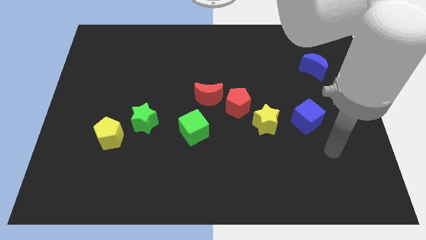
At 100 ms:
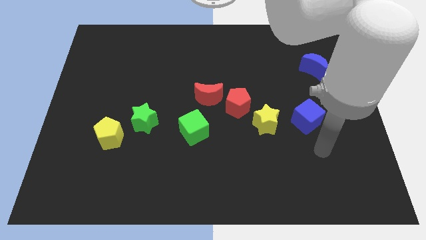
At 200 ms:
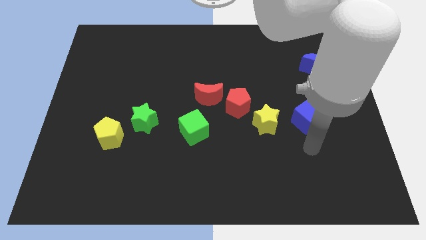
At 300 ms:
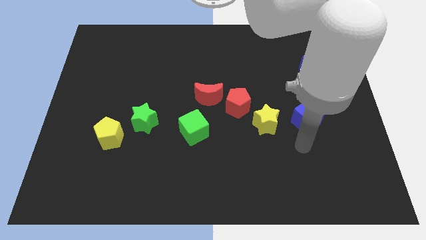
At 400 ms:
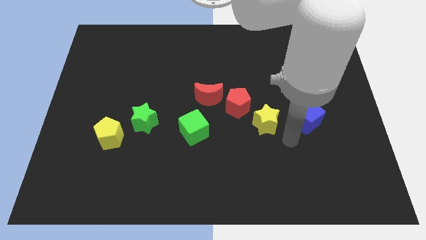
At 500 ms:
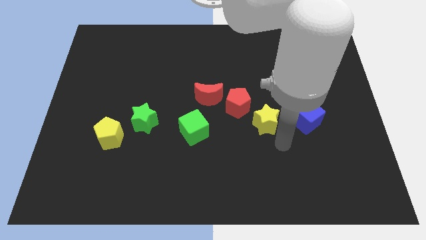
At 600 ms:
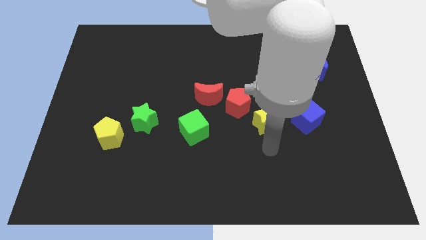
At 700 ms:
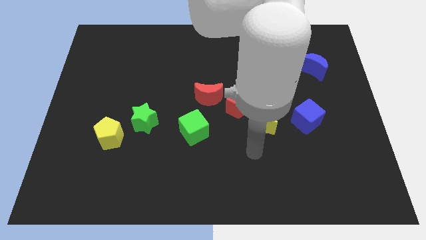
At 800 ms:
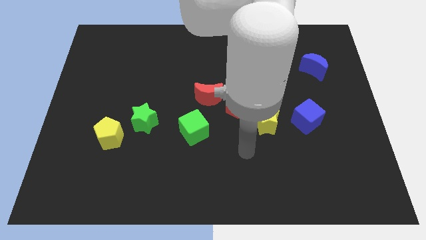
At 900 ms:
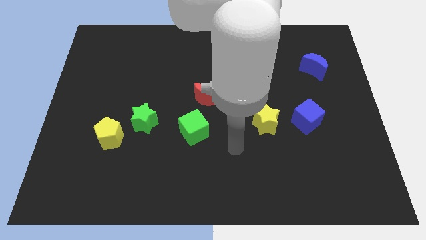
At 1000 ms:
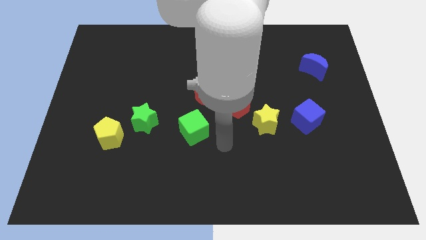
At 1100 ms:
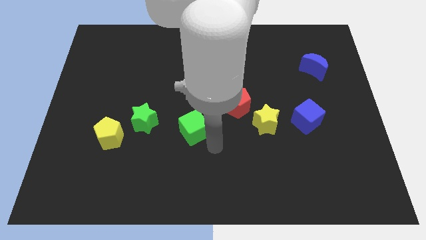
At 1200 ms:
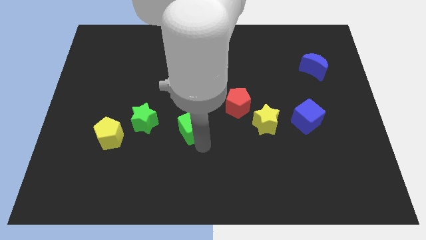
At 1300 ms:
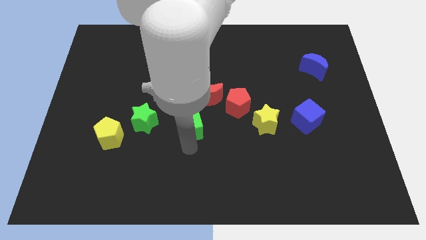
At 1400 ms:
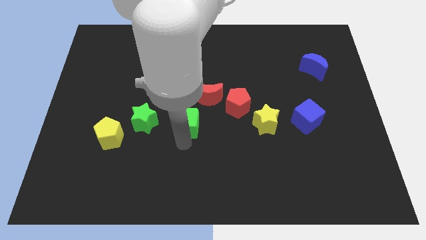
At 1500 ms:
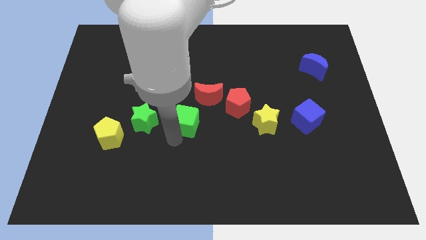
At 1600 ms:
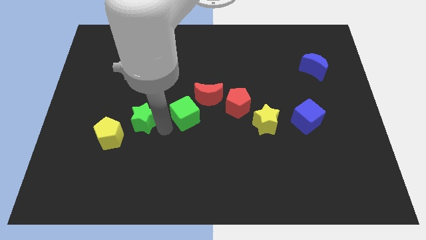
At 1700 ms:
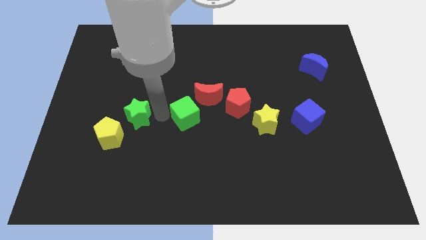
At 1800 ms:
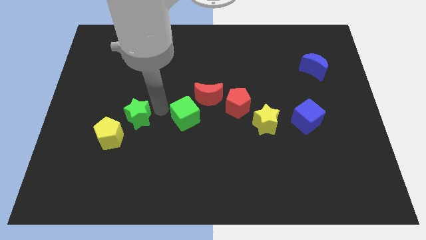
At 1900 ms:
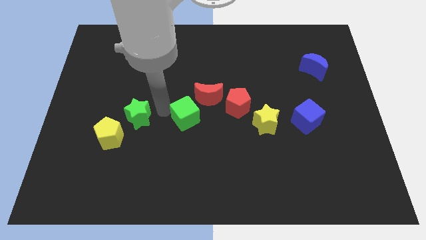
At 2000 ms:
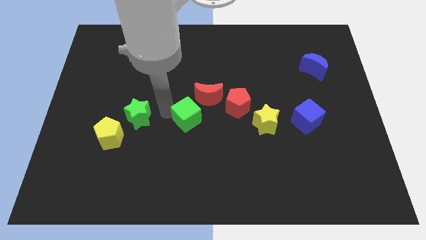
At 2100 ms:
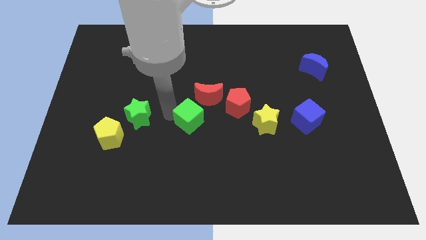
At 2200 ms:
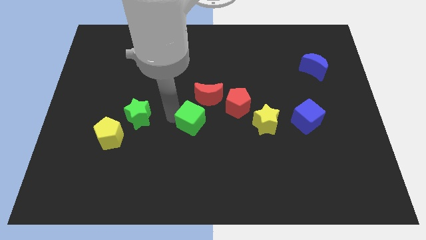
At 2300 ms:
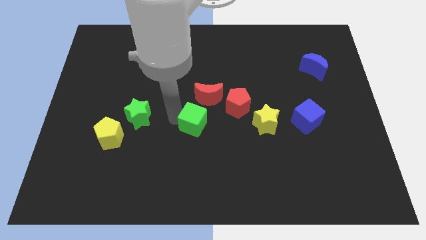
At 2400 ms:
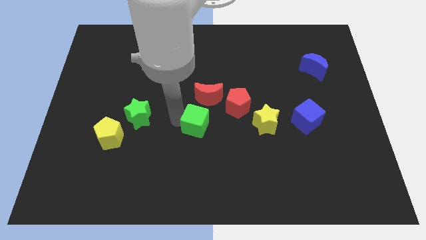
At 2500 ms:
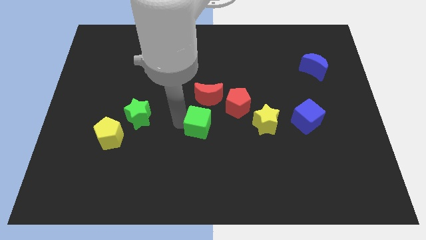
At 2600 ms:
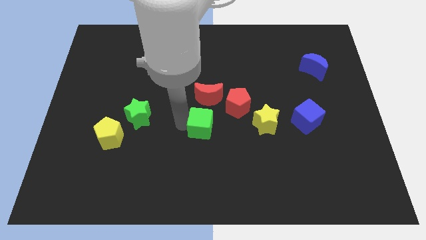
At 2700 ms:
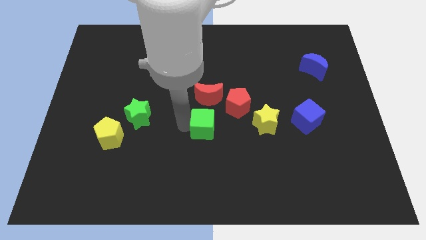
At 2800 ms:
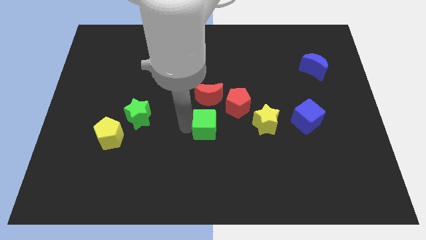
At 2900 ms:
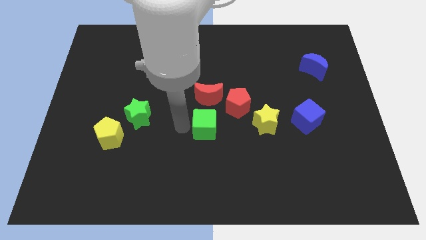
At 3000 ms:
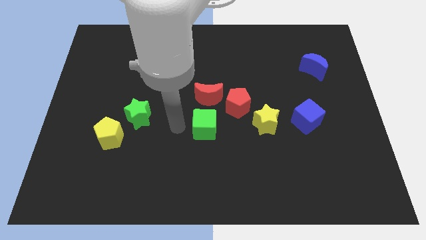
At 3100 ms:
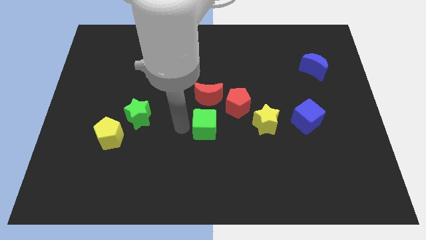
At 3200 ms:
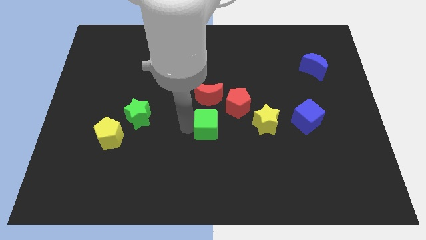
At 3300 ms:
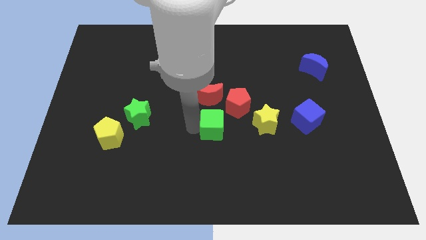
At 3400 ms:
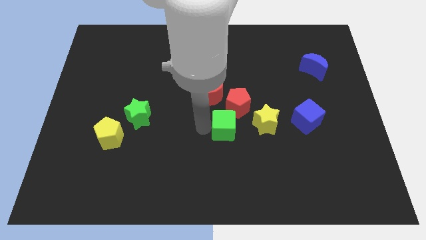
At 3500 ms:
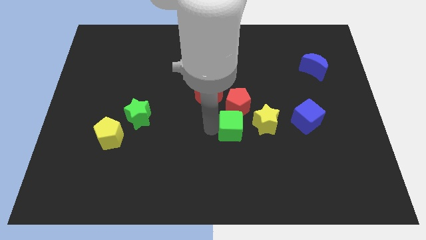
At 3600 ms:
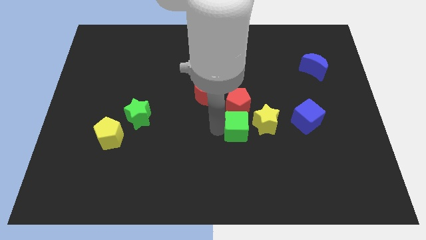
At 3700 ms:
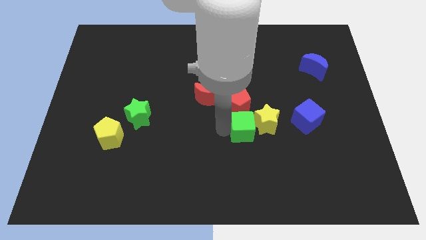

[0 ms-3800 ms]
push the green cube towards the yellow star

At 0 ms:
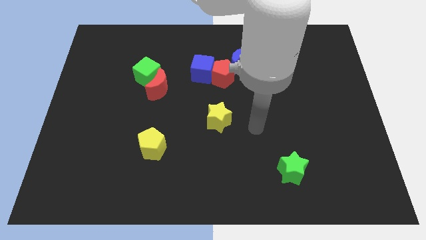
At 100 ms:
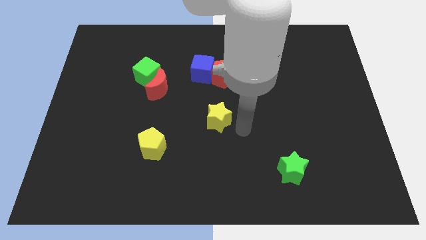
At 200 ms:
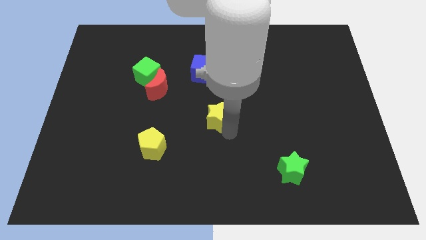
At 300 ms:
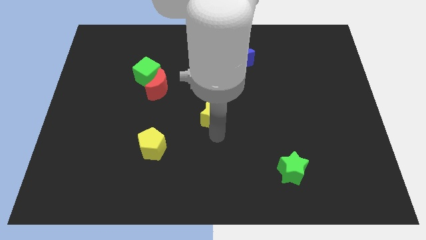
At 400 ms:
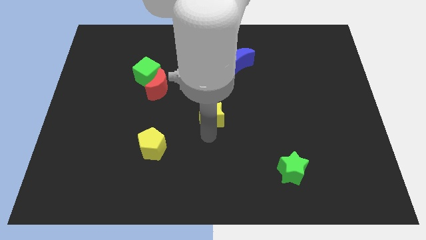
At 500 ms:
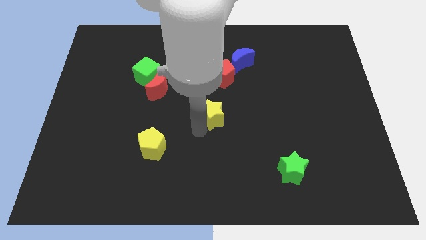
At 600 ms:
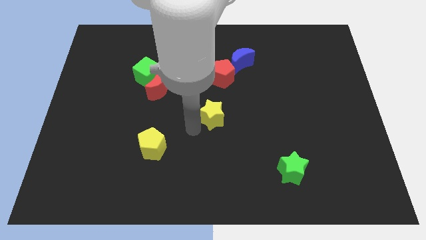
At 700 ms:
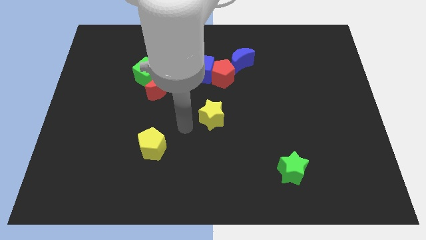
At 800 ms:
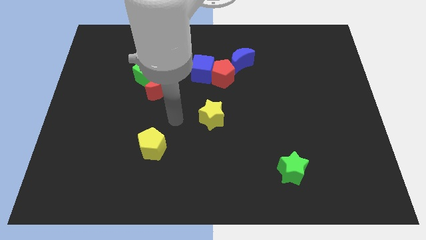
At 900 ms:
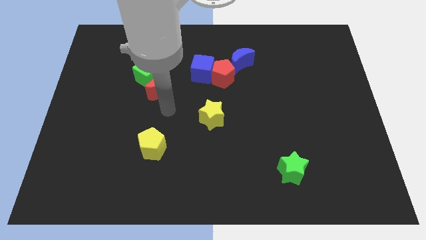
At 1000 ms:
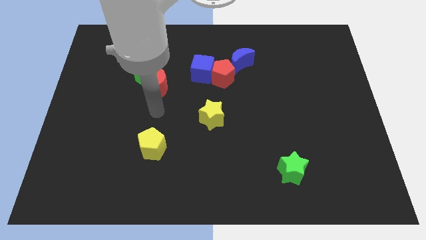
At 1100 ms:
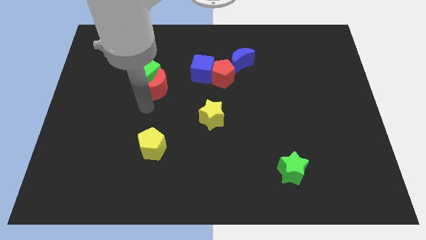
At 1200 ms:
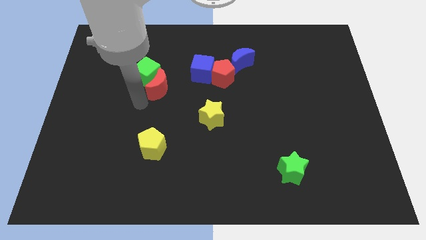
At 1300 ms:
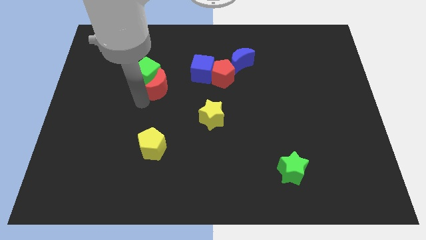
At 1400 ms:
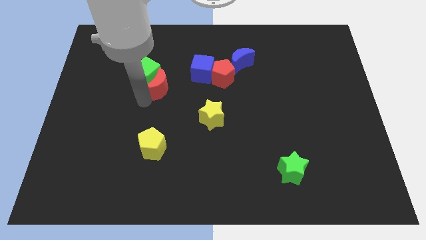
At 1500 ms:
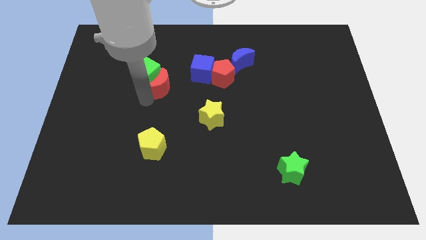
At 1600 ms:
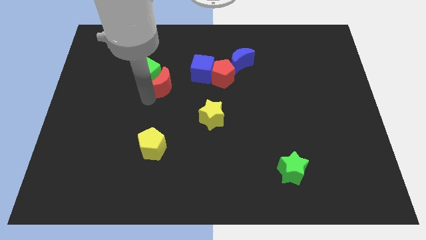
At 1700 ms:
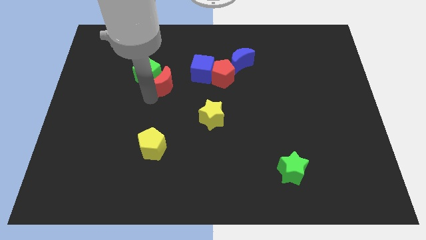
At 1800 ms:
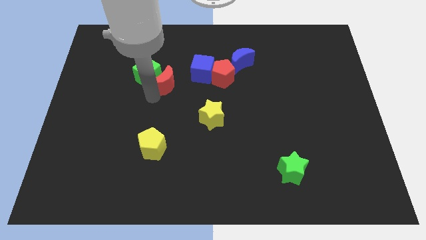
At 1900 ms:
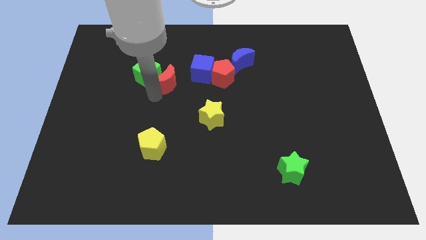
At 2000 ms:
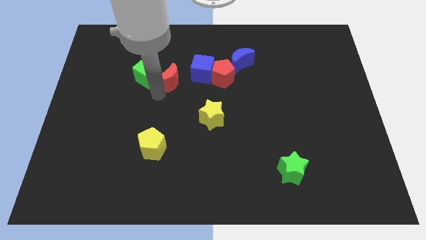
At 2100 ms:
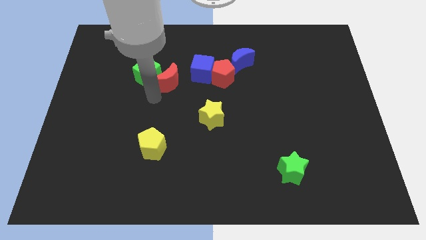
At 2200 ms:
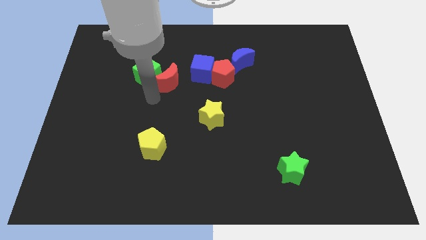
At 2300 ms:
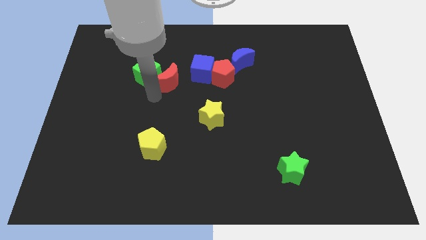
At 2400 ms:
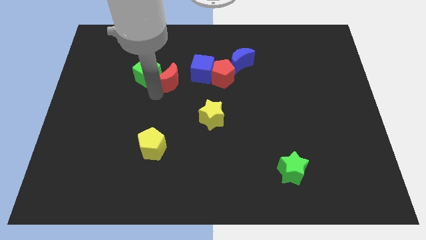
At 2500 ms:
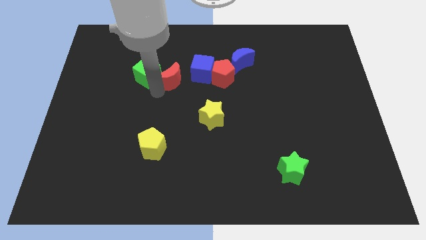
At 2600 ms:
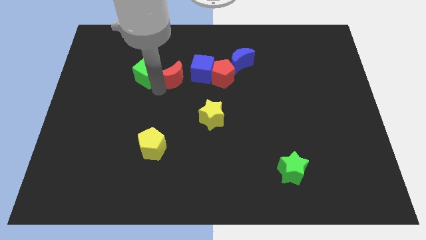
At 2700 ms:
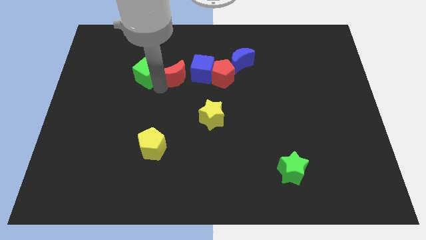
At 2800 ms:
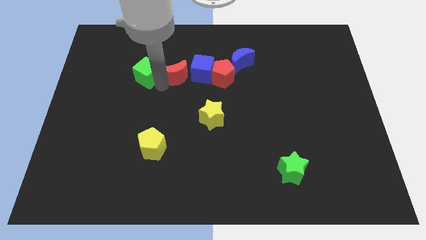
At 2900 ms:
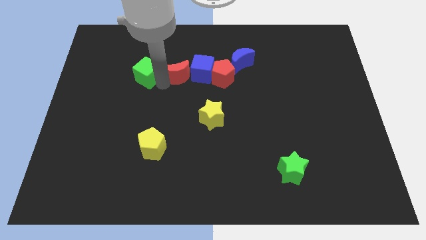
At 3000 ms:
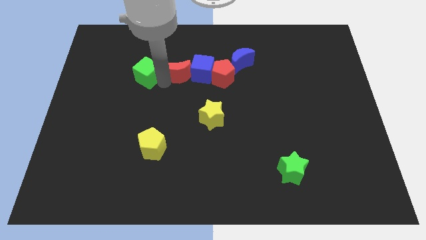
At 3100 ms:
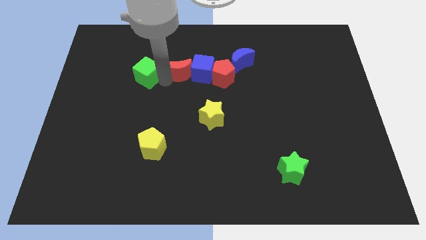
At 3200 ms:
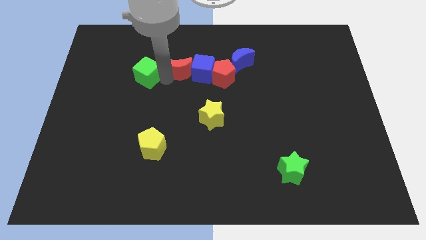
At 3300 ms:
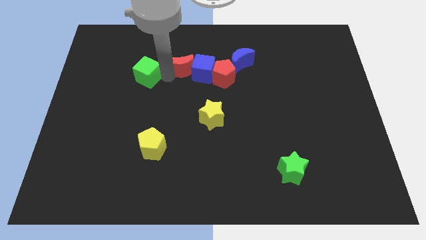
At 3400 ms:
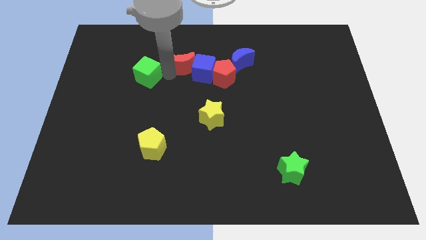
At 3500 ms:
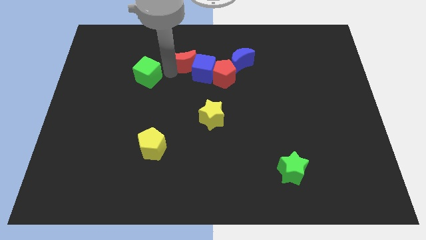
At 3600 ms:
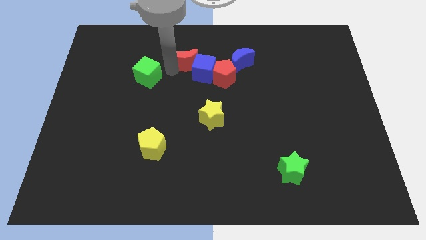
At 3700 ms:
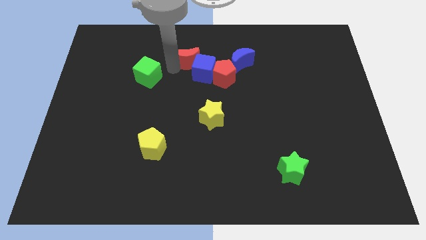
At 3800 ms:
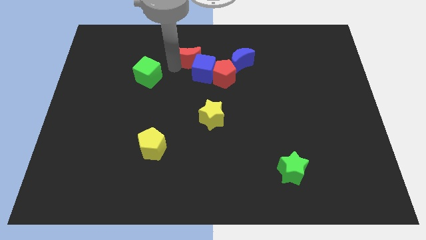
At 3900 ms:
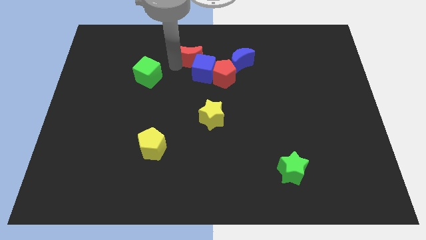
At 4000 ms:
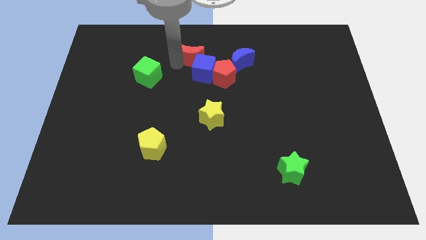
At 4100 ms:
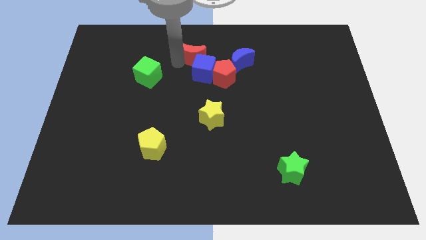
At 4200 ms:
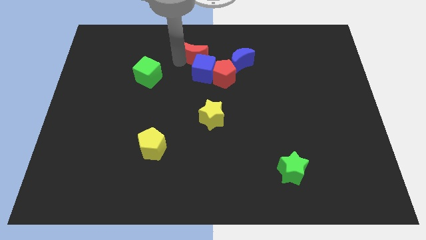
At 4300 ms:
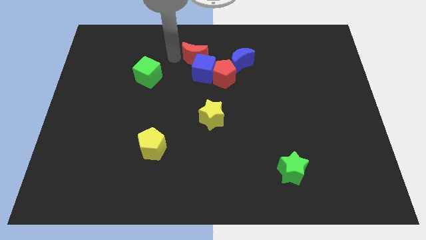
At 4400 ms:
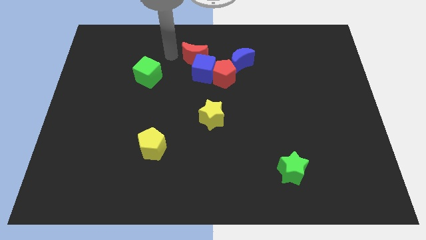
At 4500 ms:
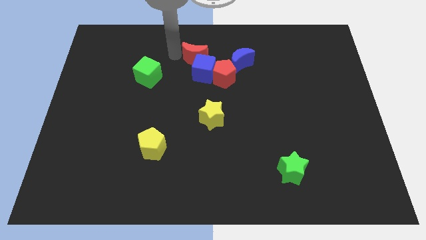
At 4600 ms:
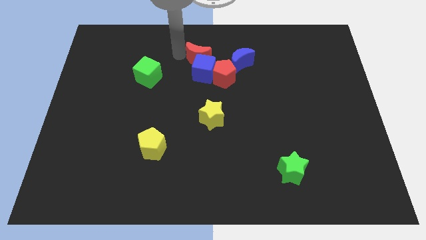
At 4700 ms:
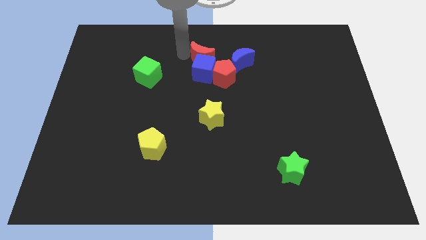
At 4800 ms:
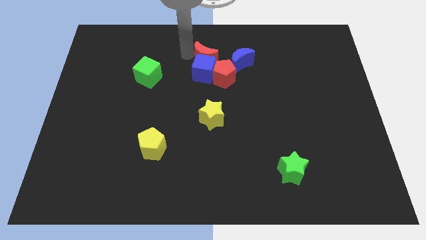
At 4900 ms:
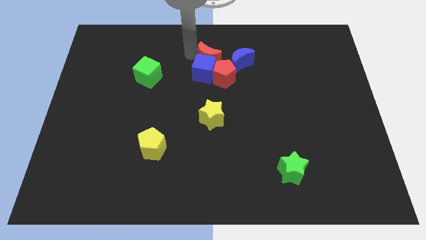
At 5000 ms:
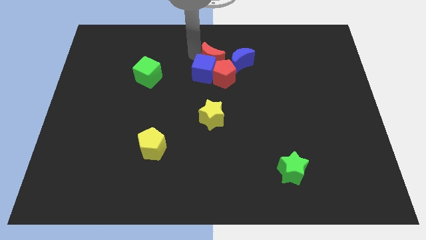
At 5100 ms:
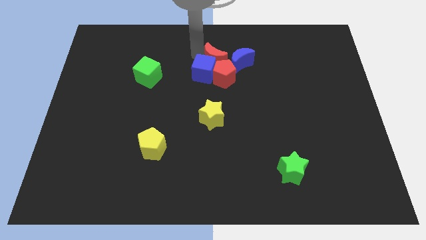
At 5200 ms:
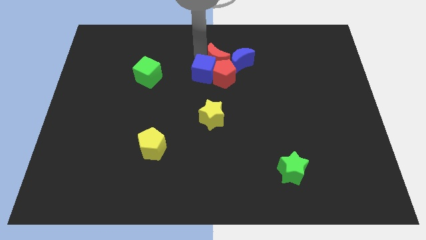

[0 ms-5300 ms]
push the red moon next to the blue moon
